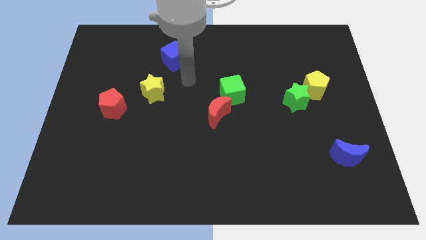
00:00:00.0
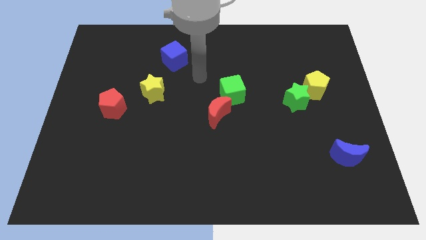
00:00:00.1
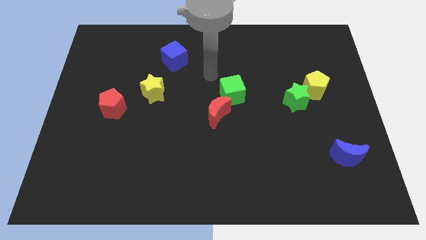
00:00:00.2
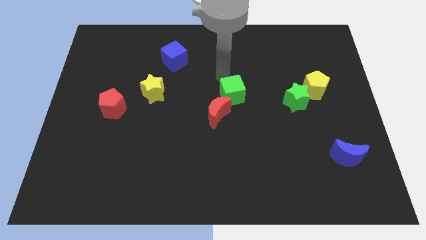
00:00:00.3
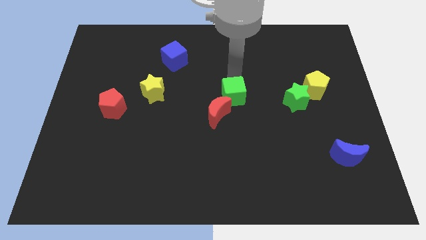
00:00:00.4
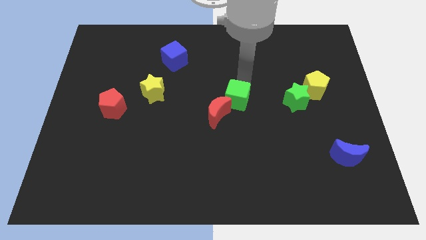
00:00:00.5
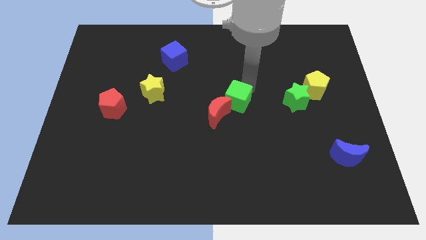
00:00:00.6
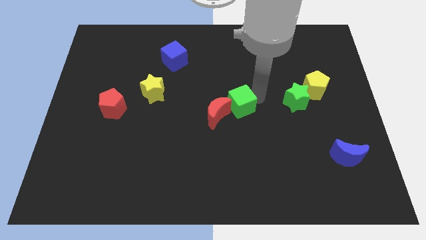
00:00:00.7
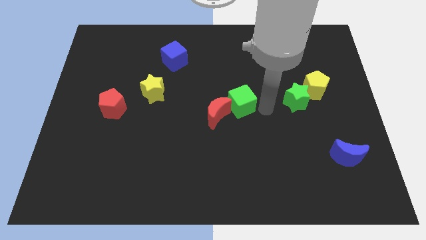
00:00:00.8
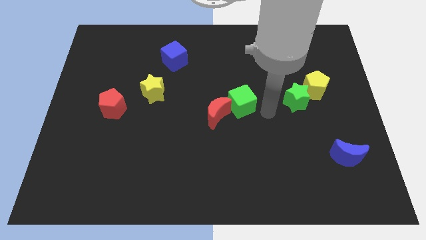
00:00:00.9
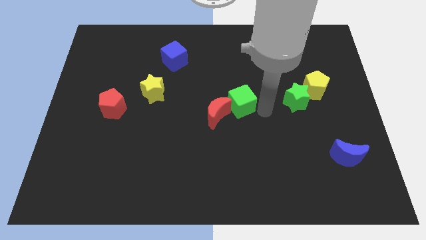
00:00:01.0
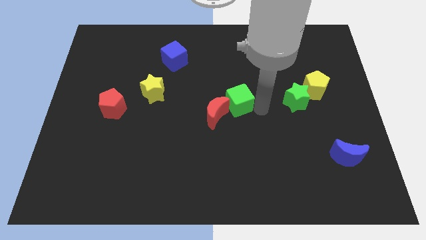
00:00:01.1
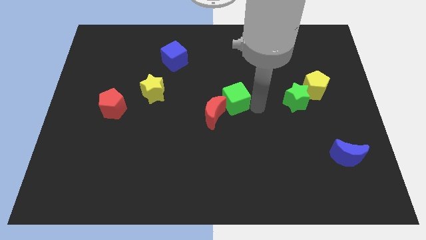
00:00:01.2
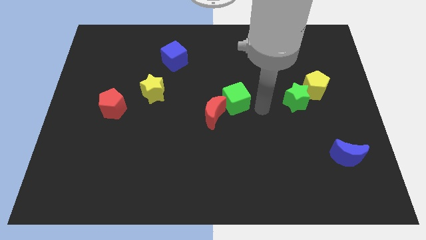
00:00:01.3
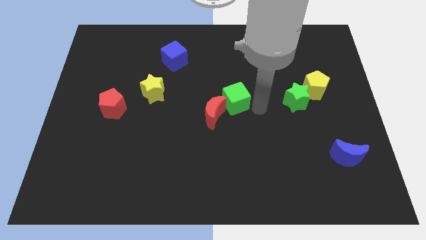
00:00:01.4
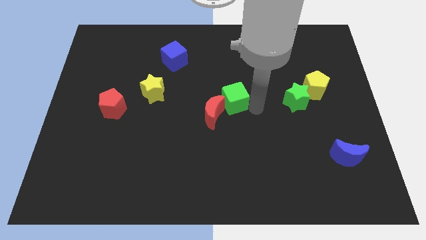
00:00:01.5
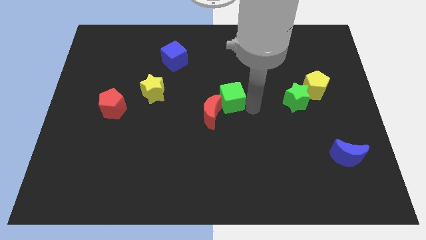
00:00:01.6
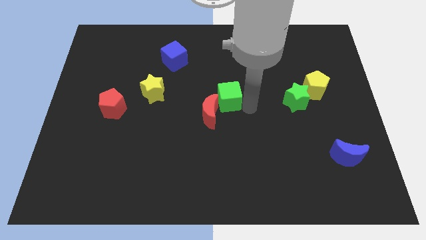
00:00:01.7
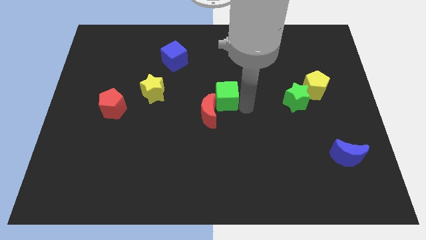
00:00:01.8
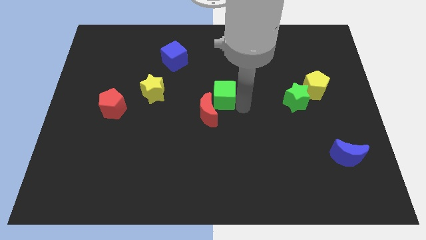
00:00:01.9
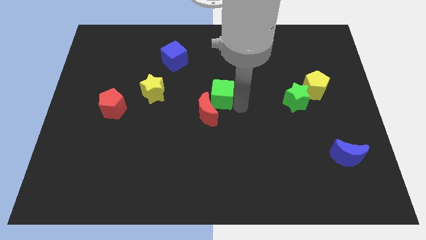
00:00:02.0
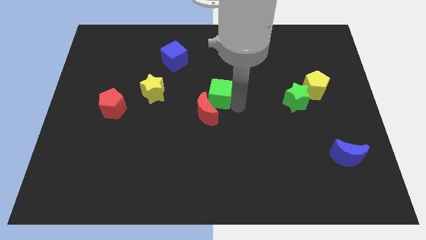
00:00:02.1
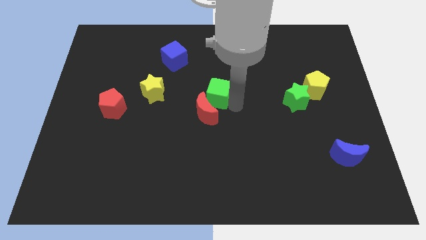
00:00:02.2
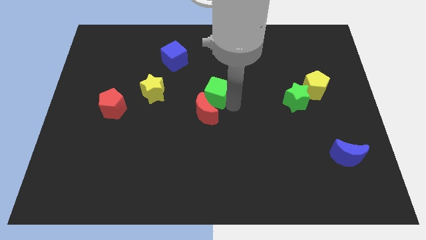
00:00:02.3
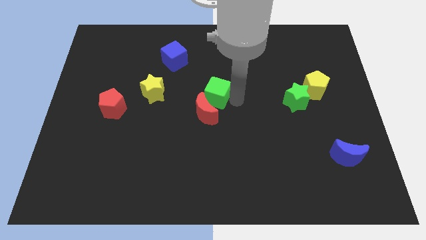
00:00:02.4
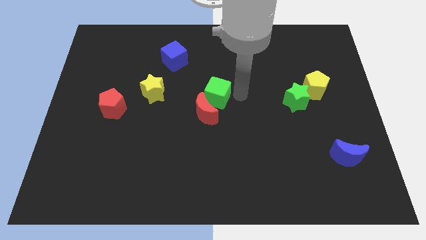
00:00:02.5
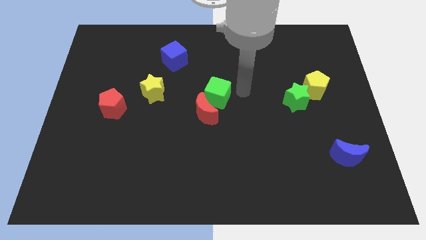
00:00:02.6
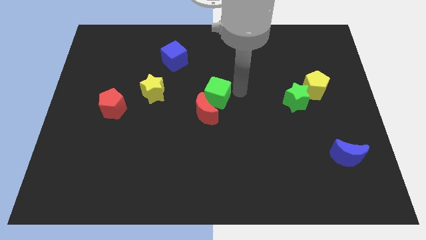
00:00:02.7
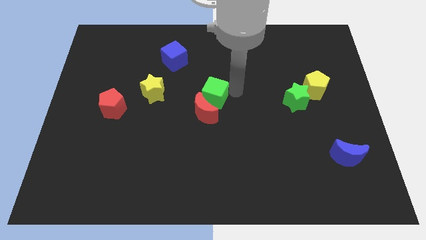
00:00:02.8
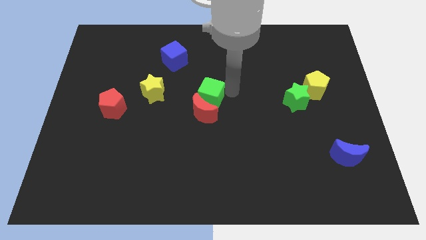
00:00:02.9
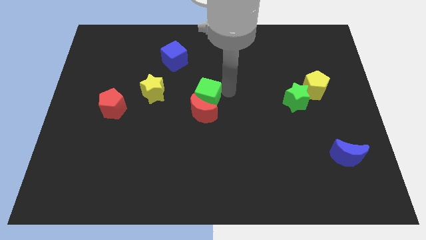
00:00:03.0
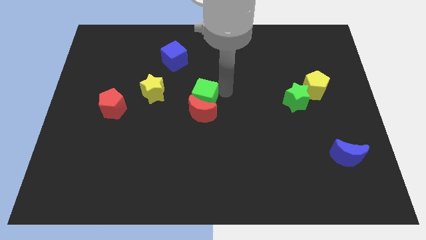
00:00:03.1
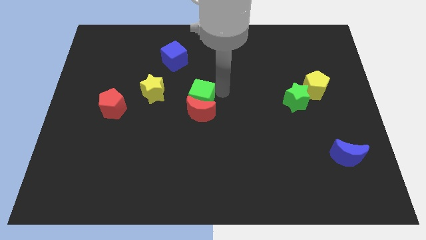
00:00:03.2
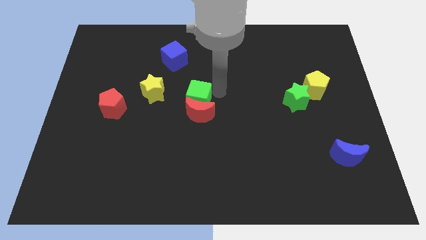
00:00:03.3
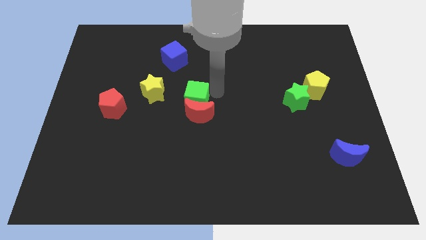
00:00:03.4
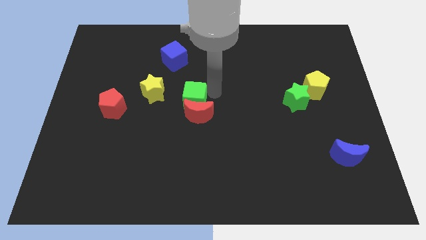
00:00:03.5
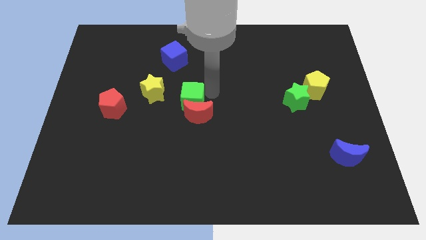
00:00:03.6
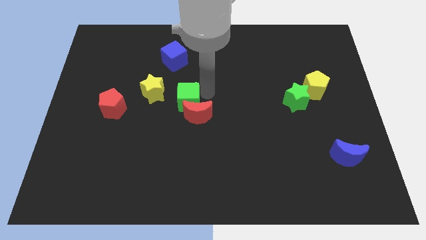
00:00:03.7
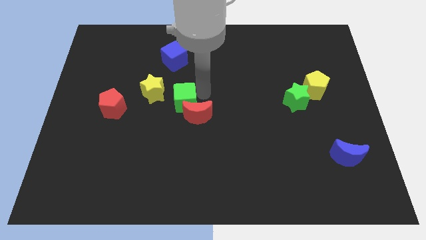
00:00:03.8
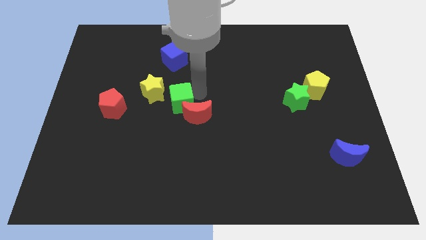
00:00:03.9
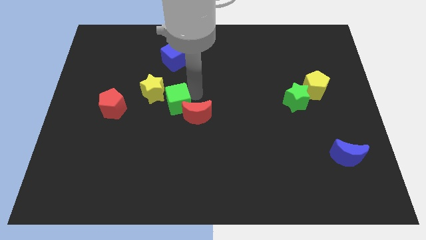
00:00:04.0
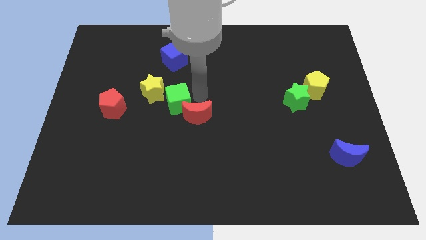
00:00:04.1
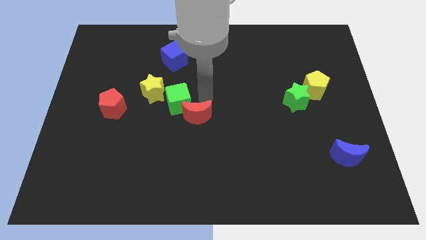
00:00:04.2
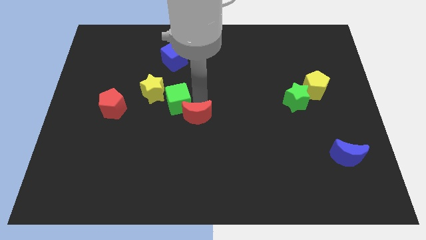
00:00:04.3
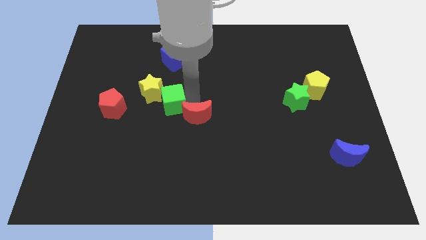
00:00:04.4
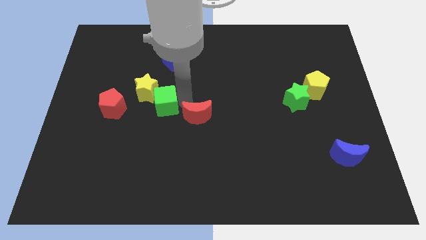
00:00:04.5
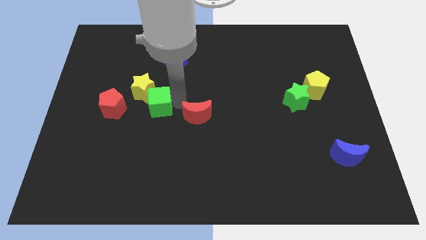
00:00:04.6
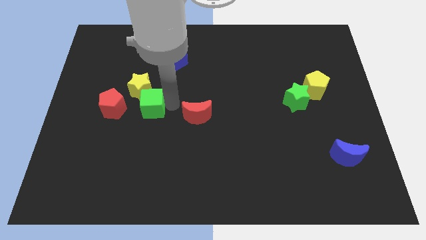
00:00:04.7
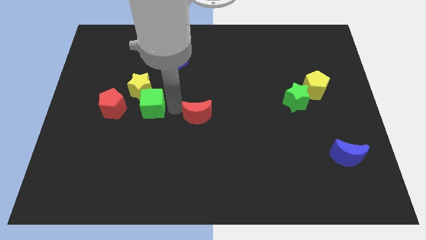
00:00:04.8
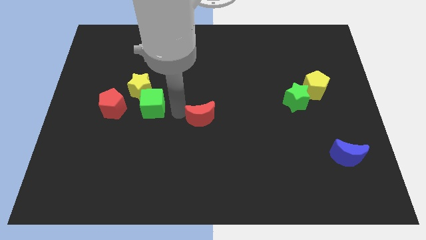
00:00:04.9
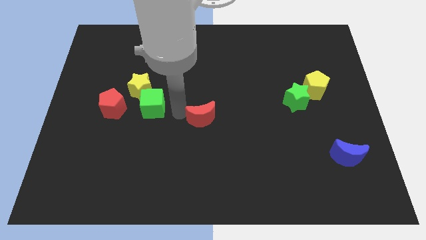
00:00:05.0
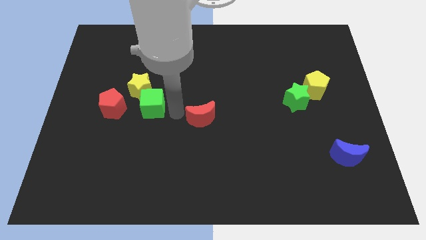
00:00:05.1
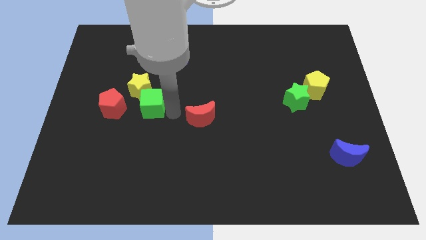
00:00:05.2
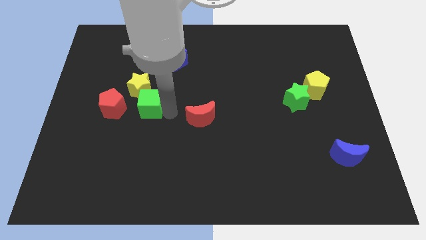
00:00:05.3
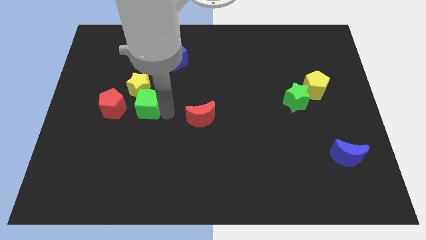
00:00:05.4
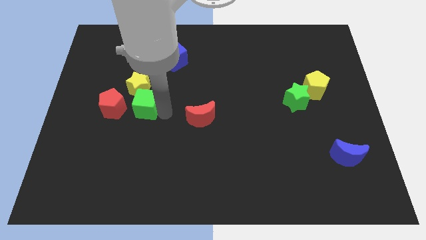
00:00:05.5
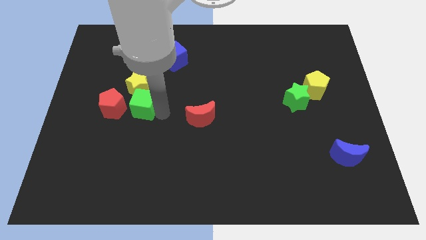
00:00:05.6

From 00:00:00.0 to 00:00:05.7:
slide the green cube to the left

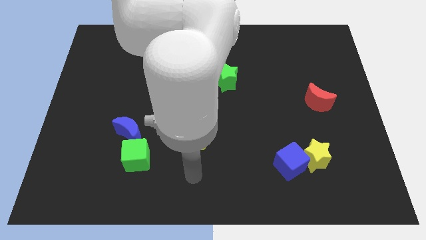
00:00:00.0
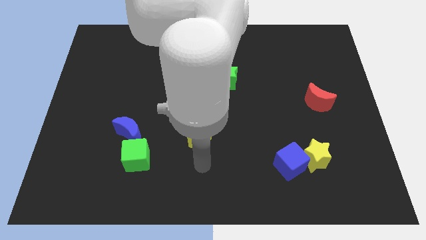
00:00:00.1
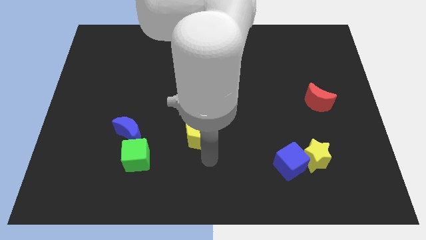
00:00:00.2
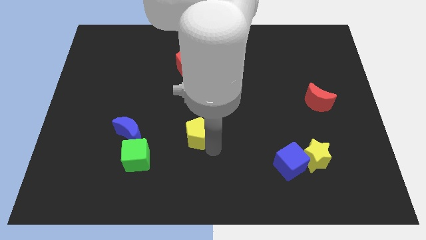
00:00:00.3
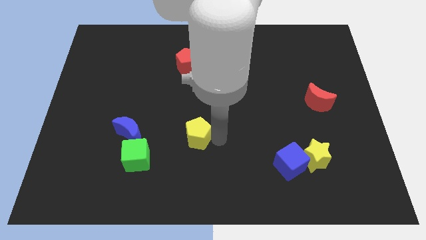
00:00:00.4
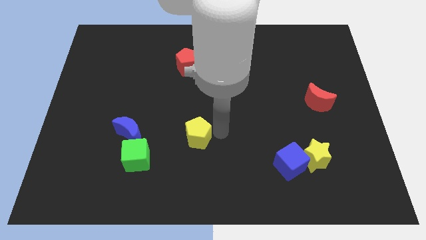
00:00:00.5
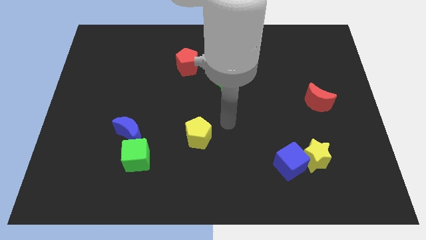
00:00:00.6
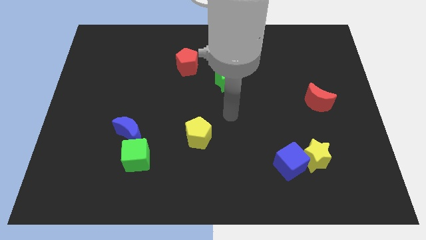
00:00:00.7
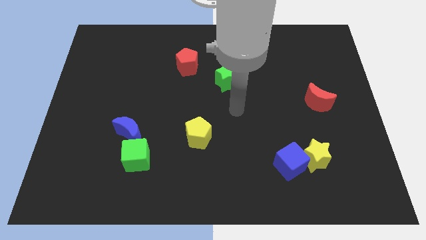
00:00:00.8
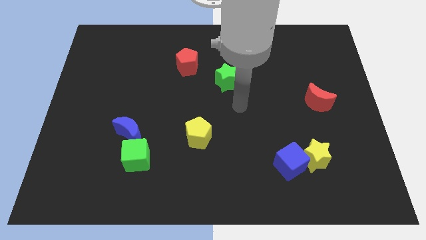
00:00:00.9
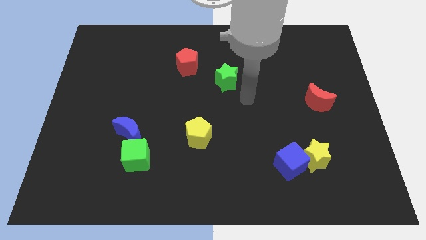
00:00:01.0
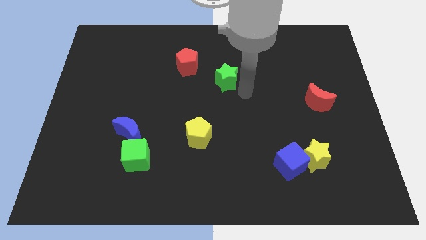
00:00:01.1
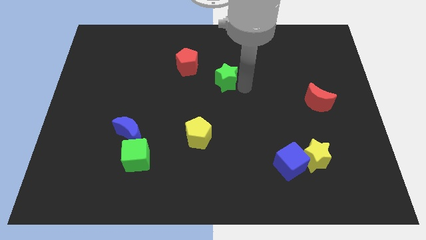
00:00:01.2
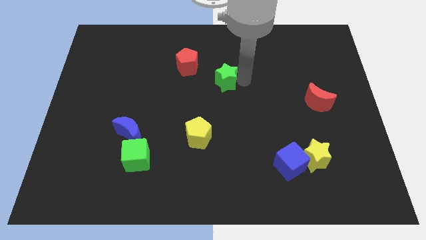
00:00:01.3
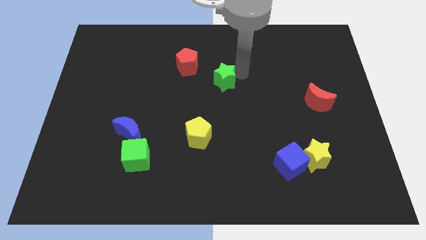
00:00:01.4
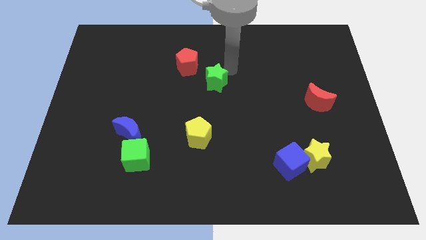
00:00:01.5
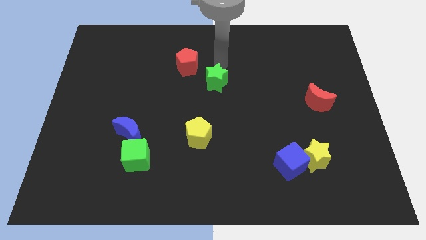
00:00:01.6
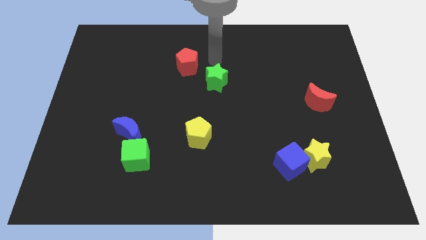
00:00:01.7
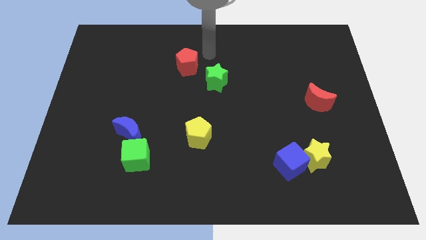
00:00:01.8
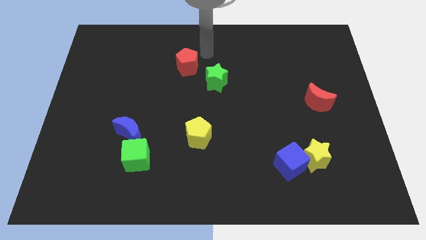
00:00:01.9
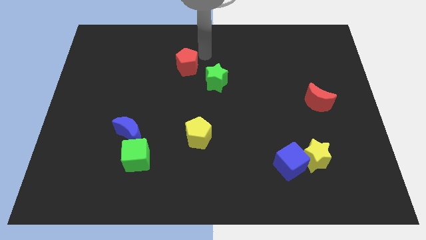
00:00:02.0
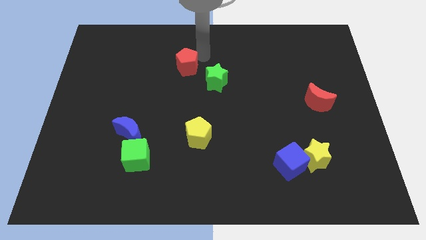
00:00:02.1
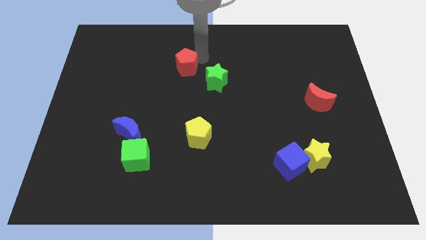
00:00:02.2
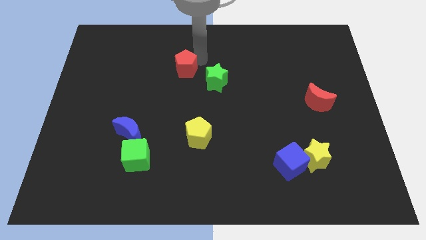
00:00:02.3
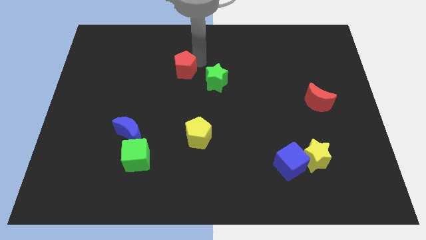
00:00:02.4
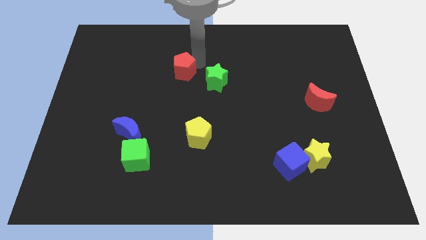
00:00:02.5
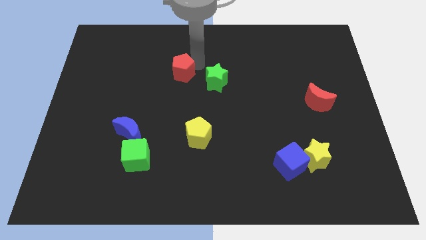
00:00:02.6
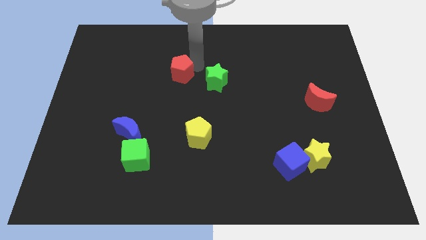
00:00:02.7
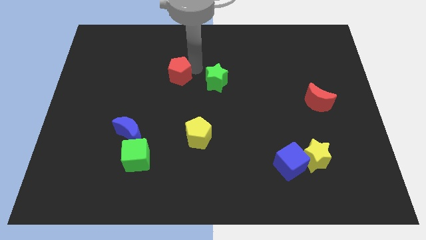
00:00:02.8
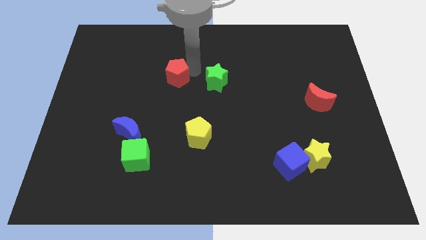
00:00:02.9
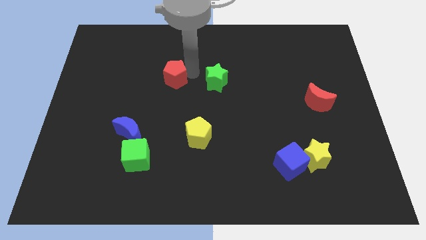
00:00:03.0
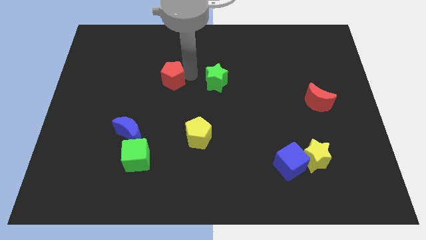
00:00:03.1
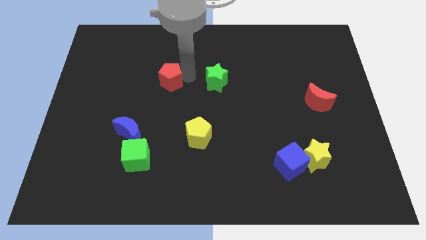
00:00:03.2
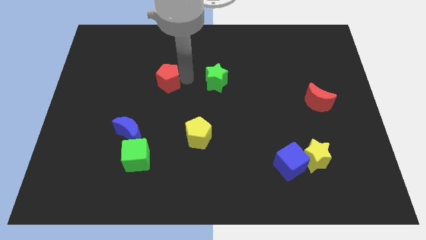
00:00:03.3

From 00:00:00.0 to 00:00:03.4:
move the red pentagon a little downwards and left
